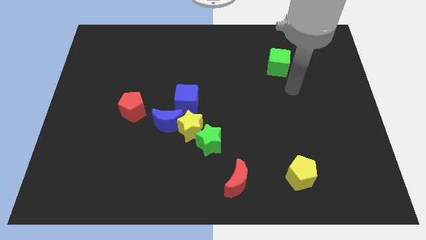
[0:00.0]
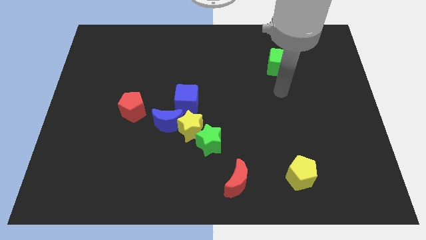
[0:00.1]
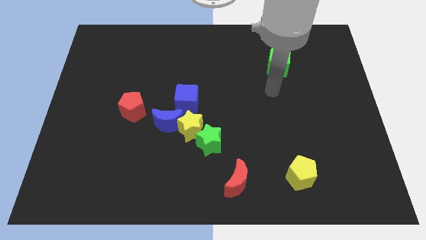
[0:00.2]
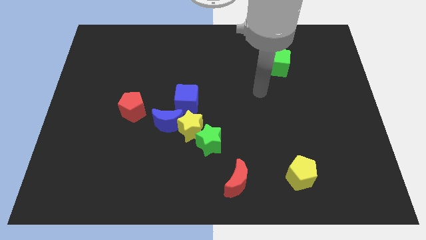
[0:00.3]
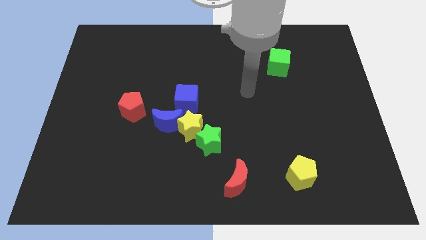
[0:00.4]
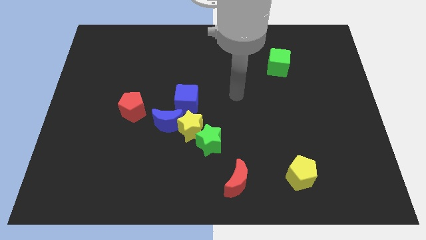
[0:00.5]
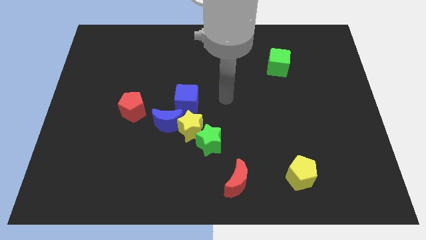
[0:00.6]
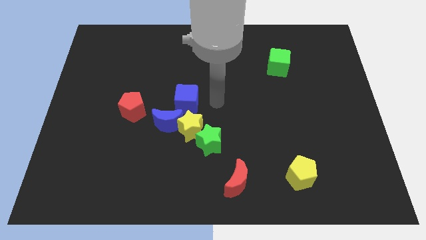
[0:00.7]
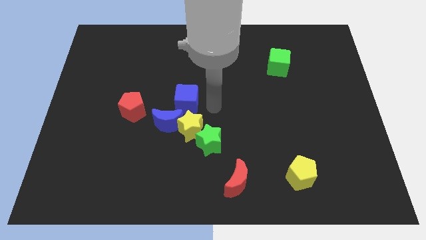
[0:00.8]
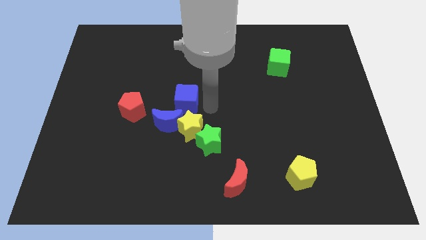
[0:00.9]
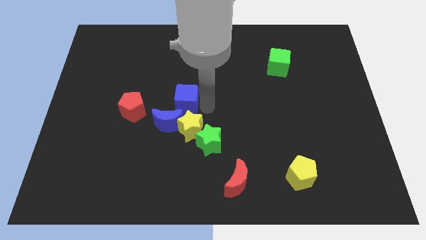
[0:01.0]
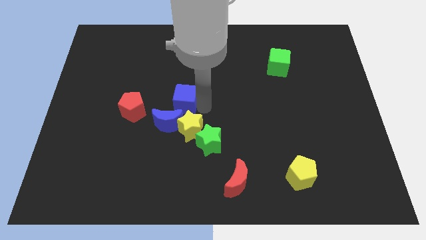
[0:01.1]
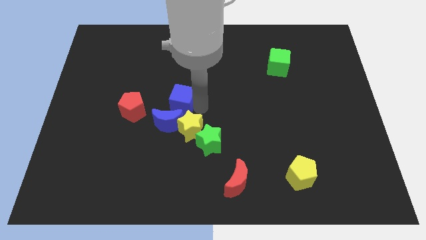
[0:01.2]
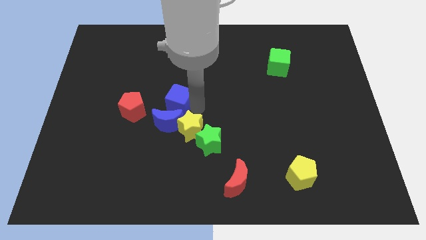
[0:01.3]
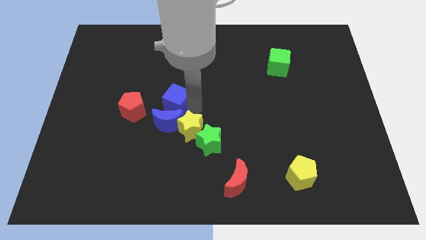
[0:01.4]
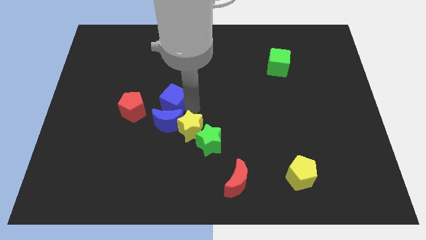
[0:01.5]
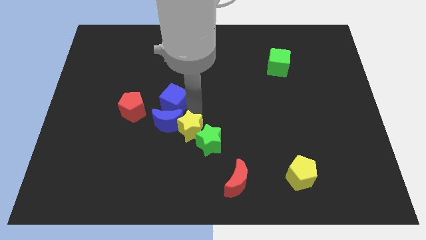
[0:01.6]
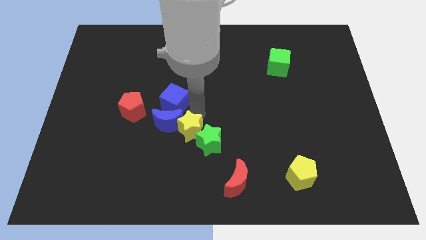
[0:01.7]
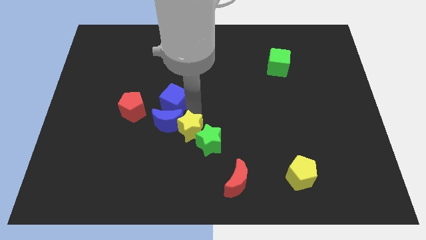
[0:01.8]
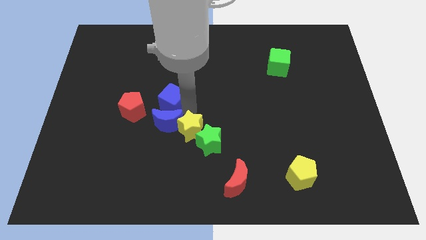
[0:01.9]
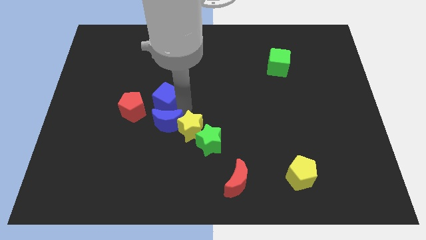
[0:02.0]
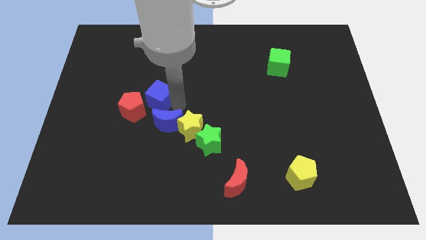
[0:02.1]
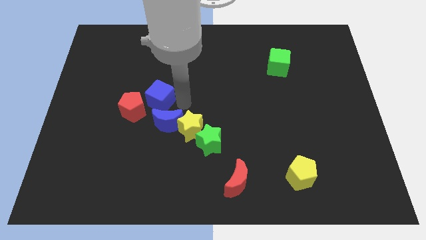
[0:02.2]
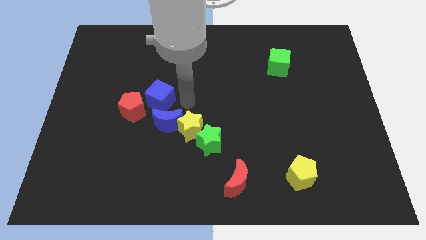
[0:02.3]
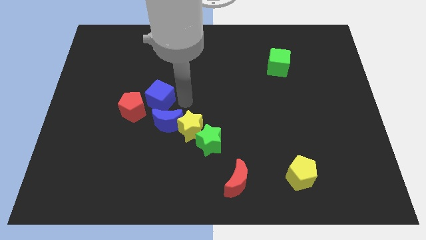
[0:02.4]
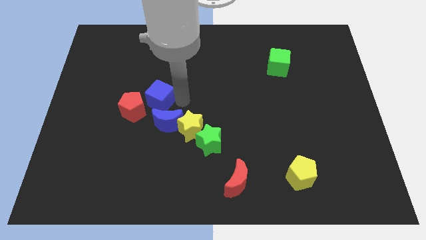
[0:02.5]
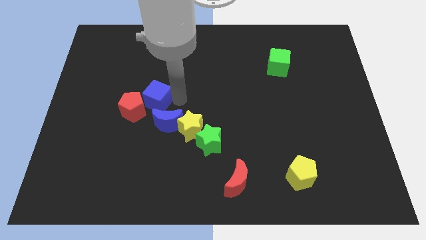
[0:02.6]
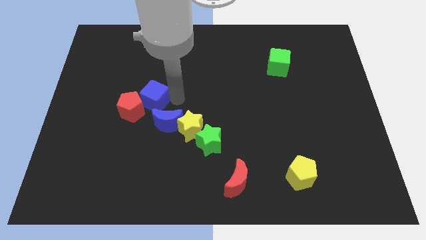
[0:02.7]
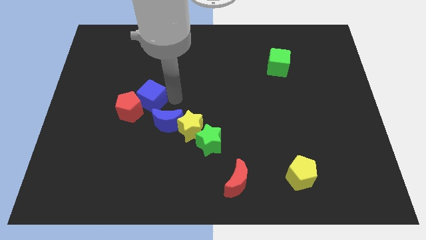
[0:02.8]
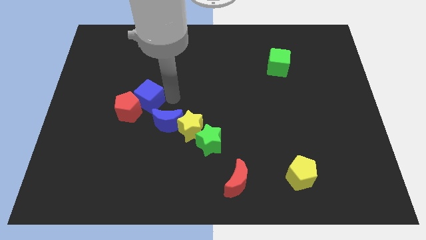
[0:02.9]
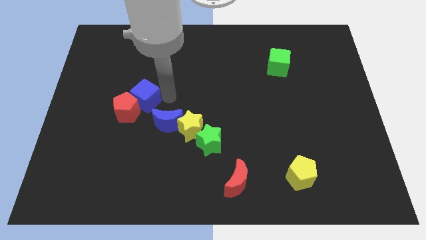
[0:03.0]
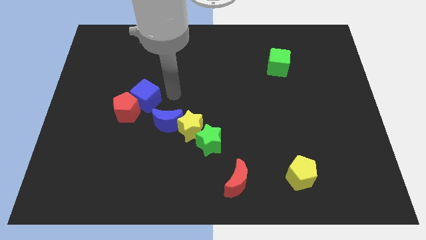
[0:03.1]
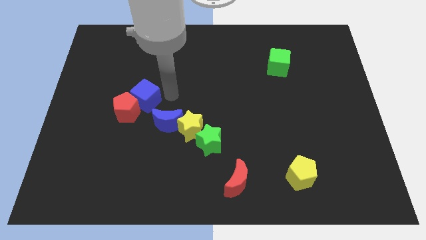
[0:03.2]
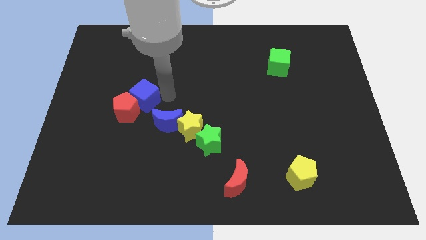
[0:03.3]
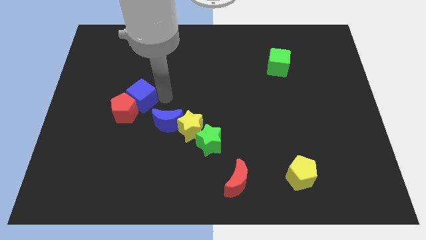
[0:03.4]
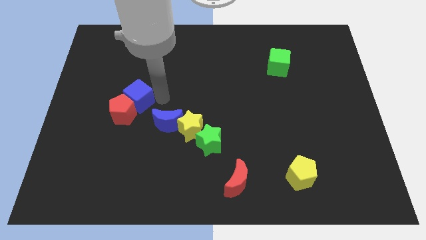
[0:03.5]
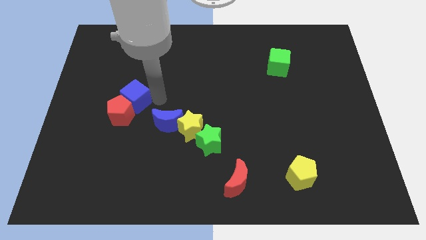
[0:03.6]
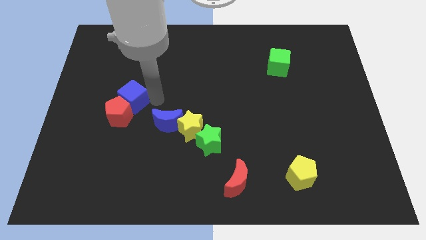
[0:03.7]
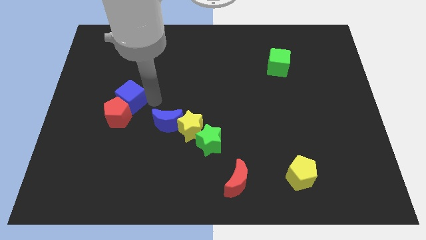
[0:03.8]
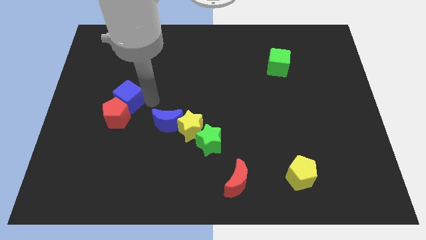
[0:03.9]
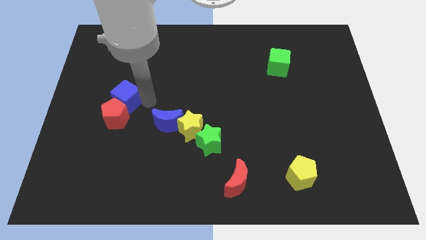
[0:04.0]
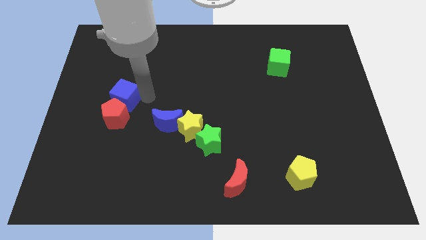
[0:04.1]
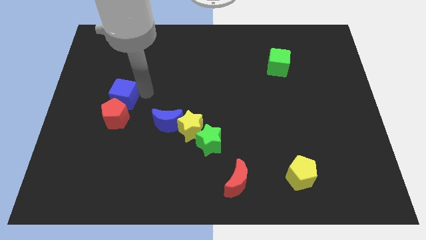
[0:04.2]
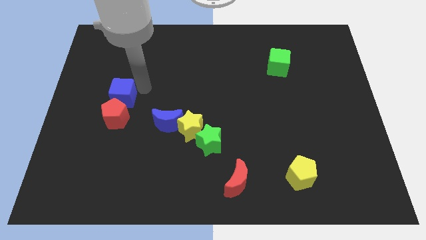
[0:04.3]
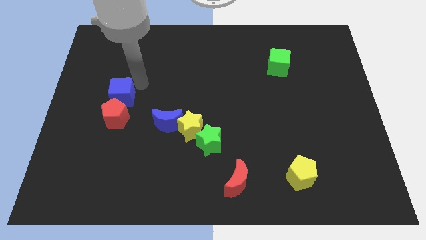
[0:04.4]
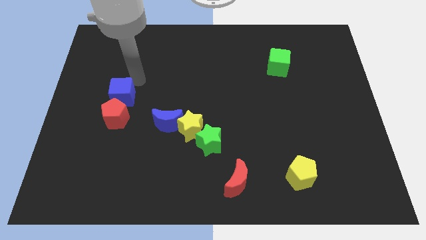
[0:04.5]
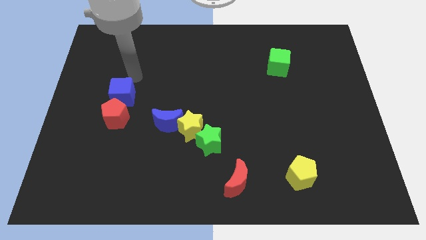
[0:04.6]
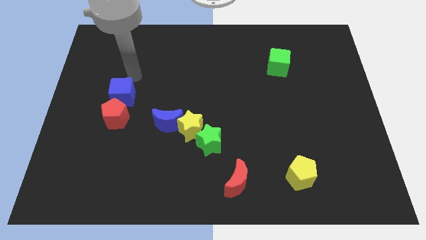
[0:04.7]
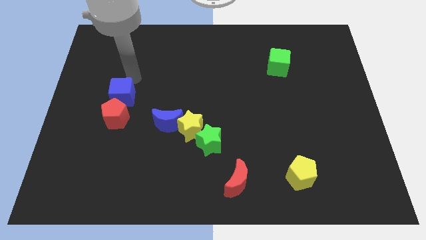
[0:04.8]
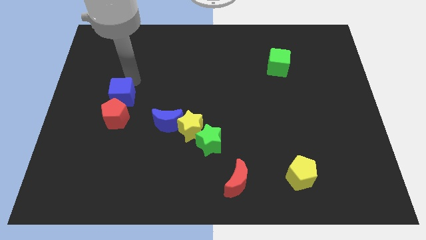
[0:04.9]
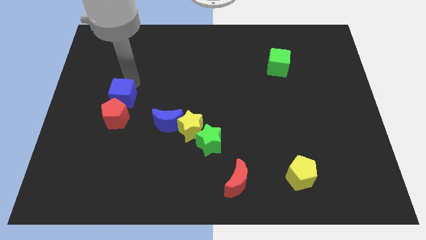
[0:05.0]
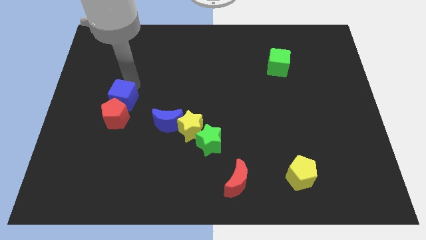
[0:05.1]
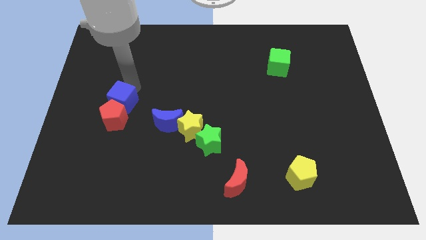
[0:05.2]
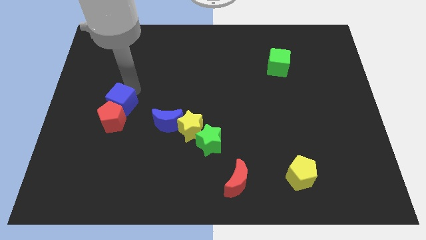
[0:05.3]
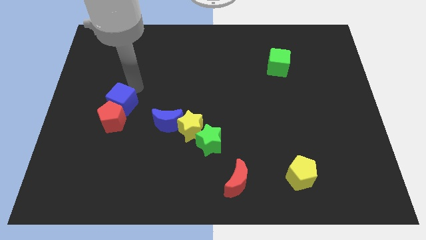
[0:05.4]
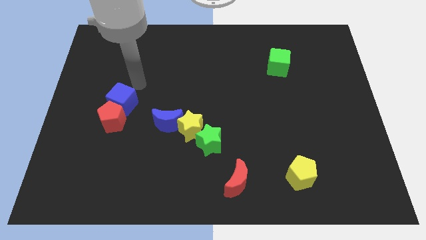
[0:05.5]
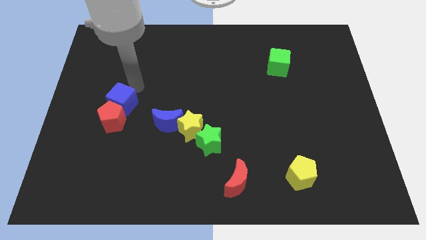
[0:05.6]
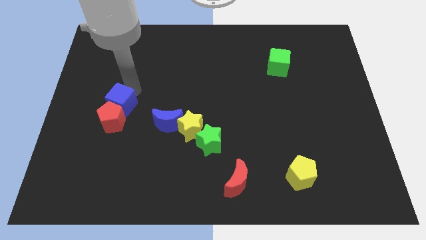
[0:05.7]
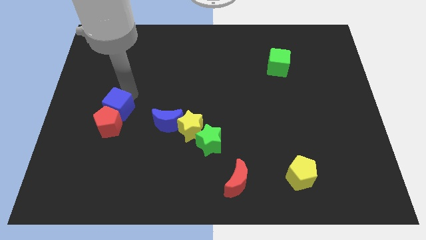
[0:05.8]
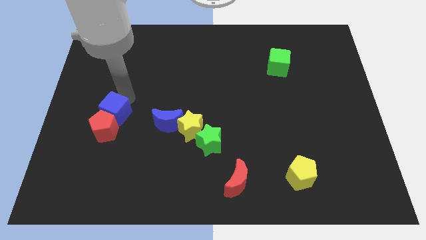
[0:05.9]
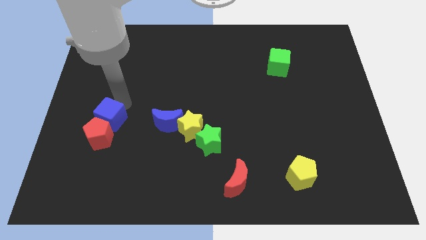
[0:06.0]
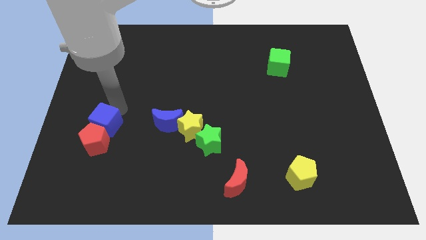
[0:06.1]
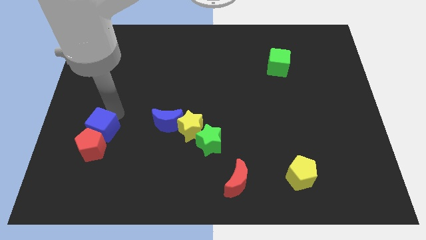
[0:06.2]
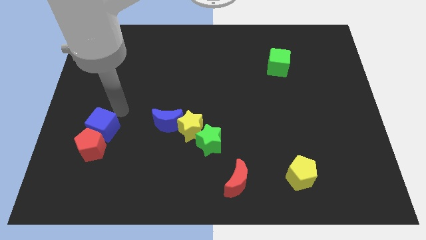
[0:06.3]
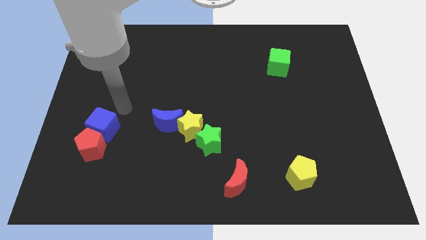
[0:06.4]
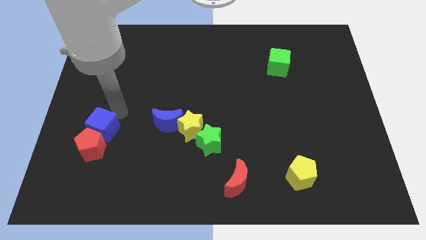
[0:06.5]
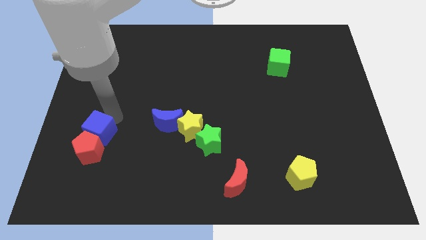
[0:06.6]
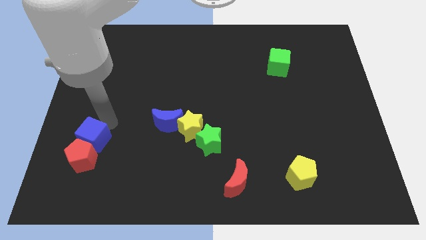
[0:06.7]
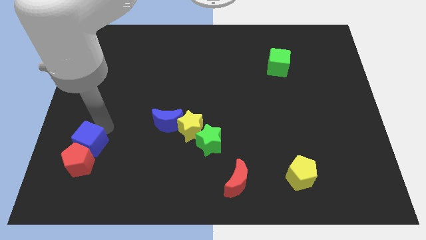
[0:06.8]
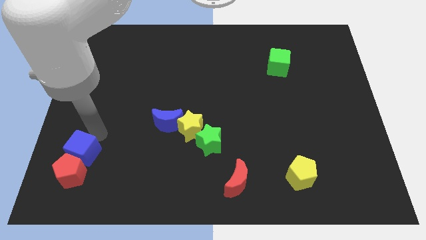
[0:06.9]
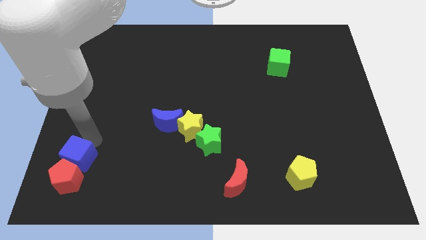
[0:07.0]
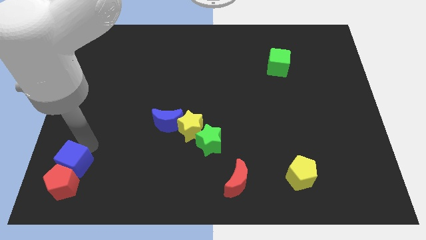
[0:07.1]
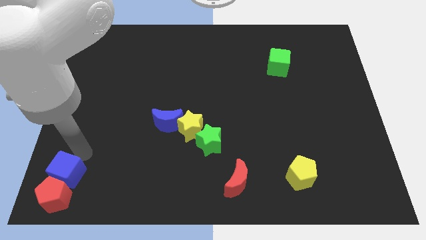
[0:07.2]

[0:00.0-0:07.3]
slide the blue cube to the lower left corner
